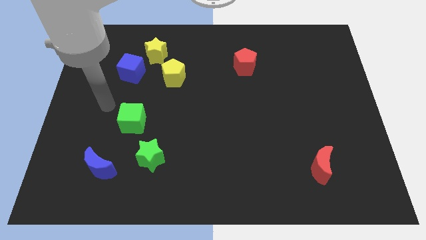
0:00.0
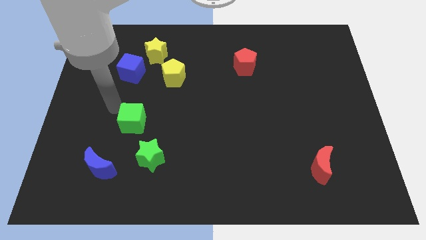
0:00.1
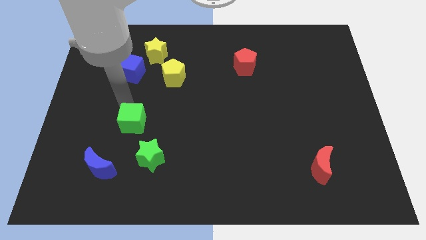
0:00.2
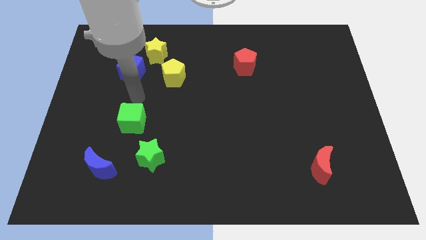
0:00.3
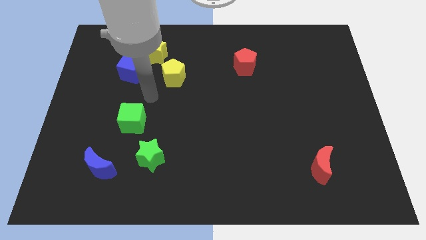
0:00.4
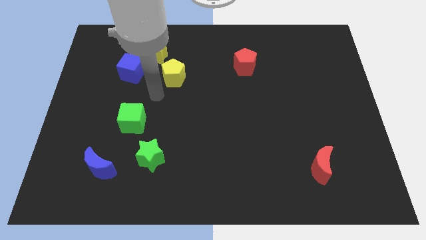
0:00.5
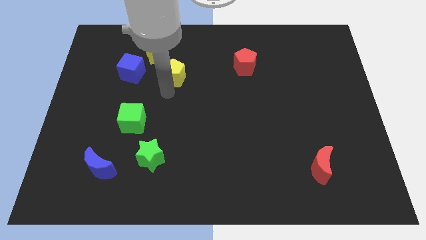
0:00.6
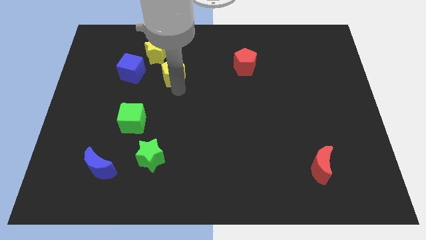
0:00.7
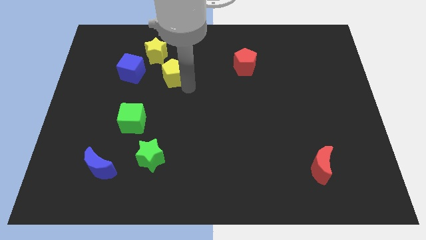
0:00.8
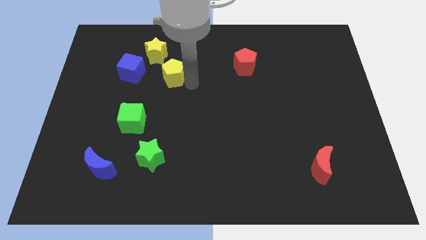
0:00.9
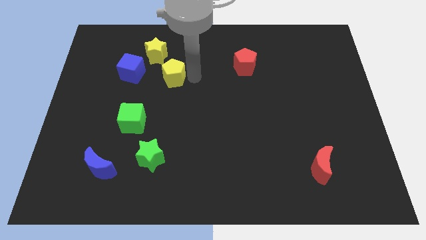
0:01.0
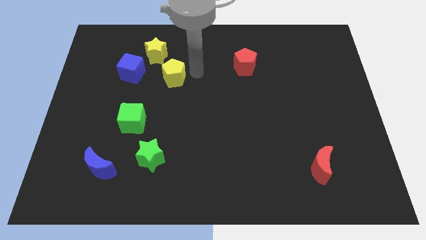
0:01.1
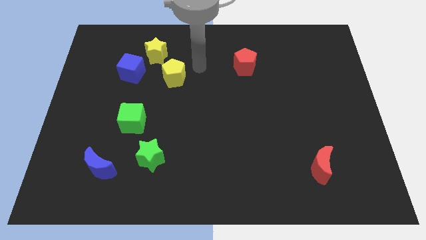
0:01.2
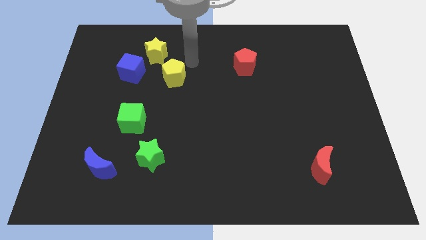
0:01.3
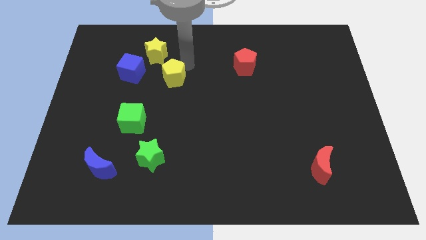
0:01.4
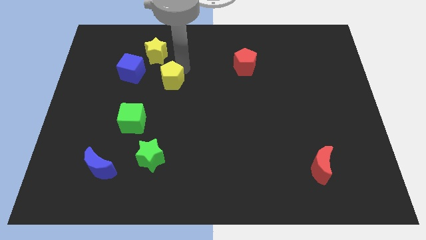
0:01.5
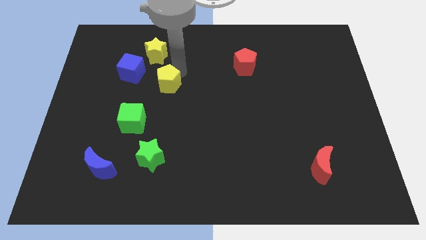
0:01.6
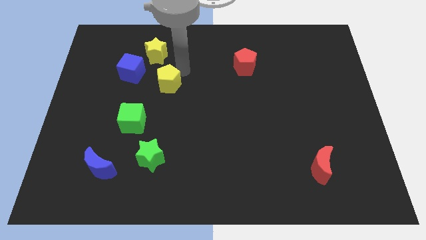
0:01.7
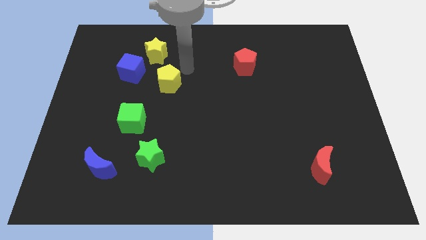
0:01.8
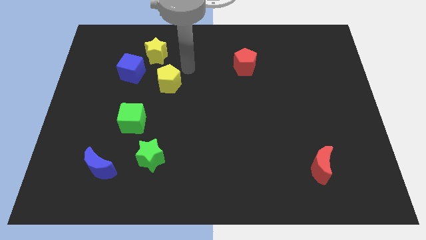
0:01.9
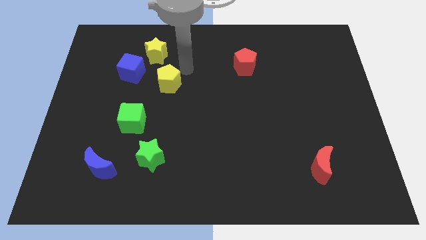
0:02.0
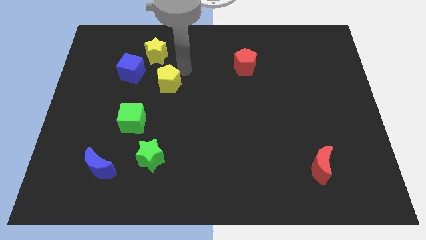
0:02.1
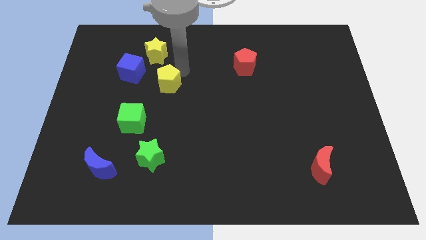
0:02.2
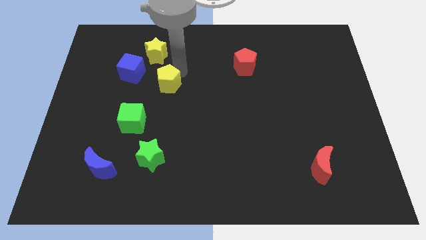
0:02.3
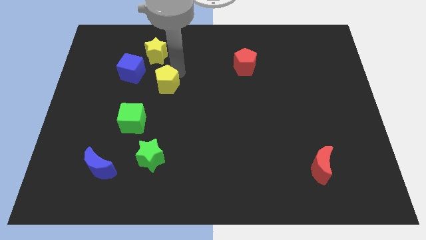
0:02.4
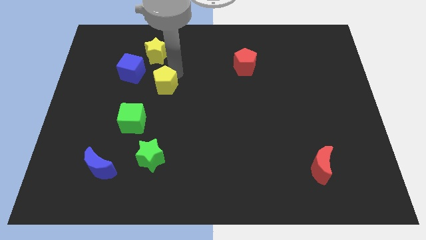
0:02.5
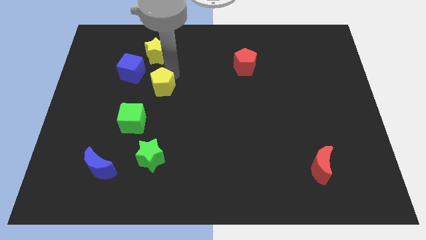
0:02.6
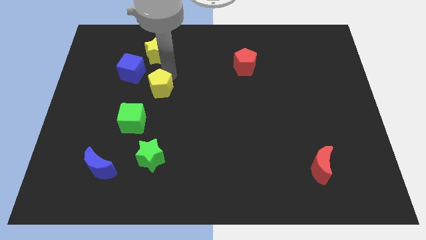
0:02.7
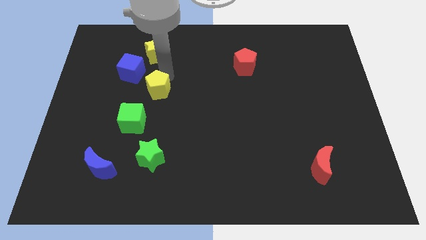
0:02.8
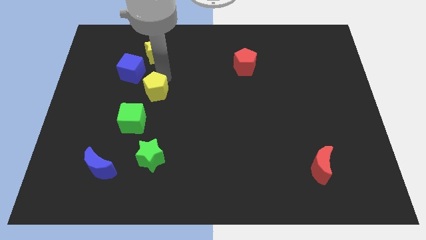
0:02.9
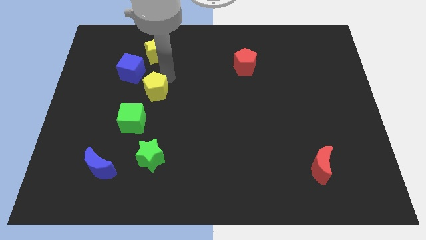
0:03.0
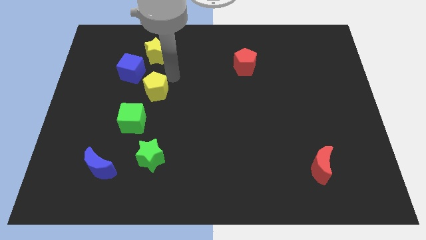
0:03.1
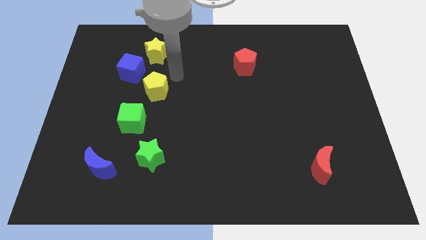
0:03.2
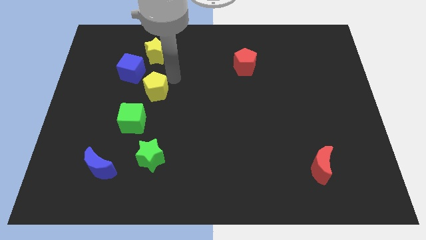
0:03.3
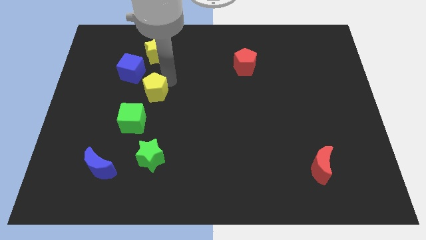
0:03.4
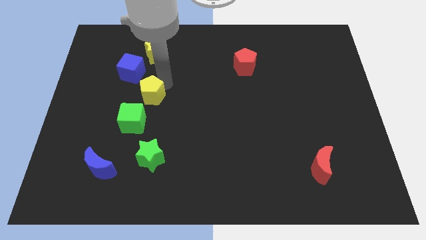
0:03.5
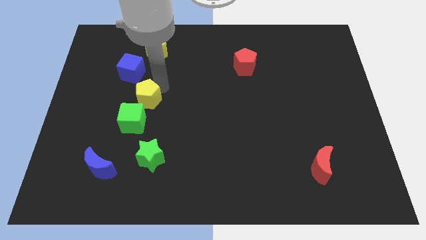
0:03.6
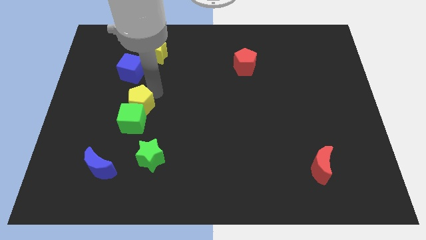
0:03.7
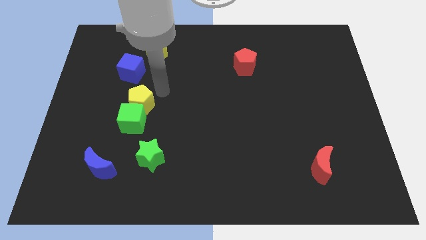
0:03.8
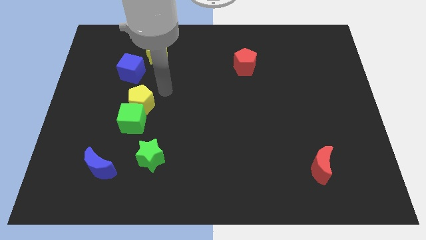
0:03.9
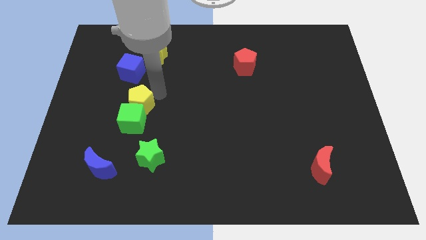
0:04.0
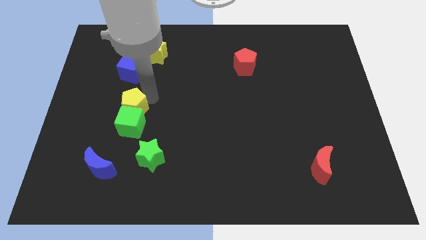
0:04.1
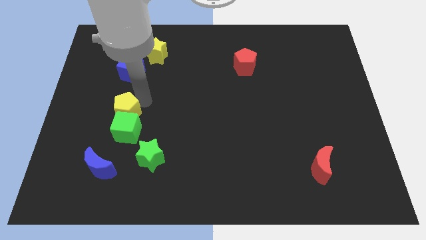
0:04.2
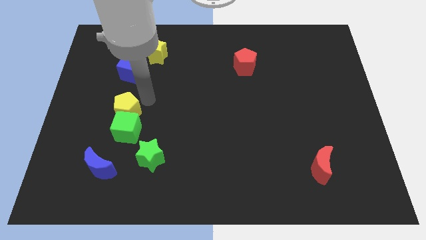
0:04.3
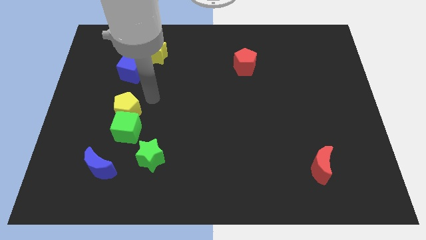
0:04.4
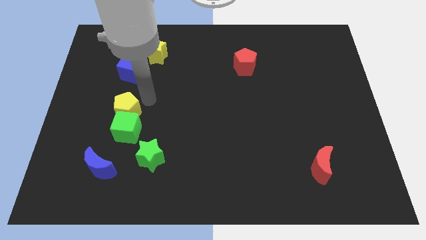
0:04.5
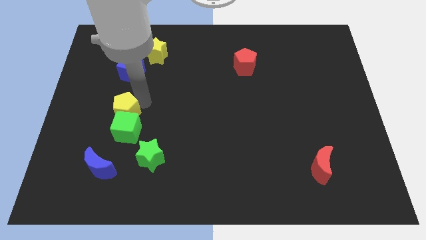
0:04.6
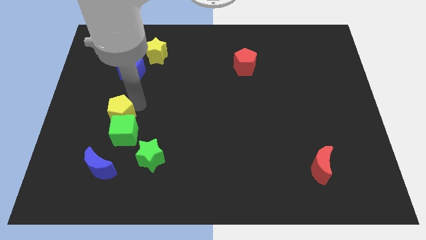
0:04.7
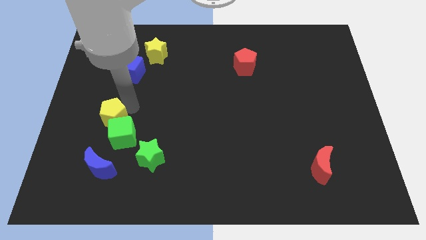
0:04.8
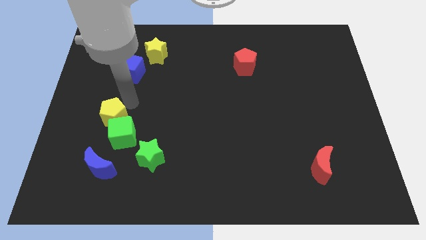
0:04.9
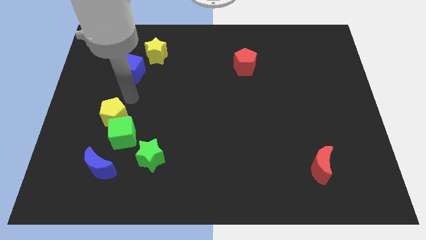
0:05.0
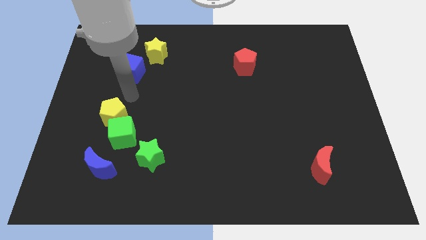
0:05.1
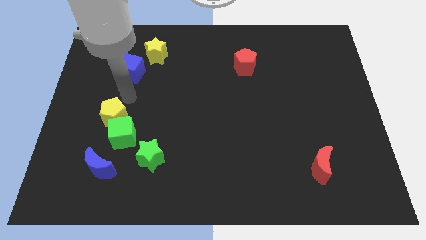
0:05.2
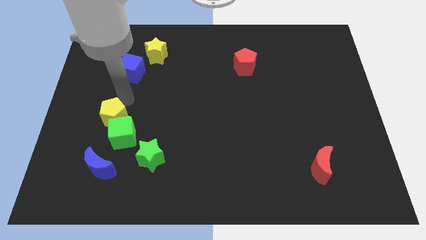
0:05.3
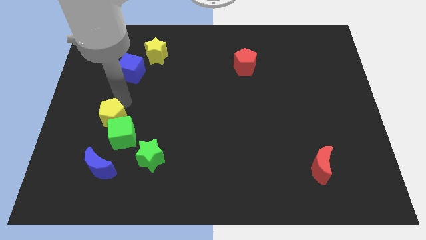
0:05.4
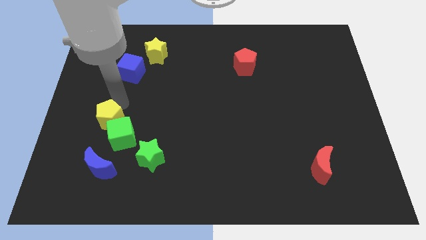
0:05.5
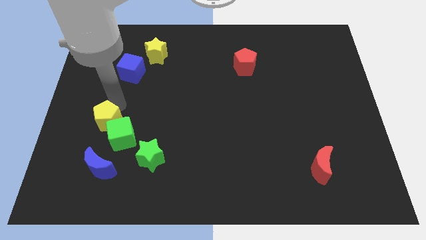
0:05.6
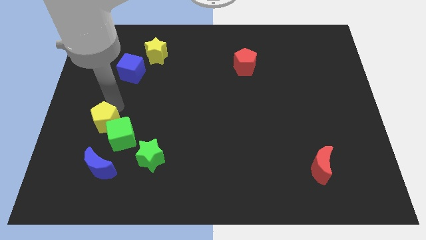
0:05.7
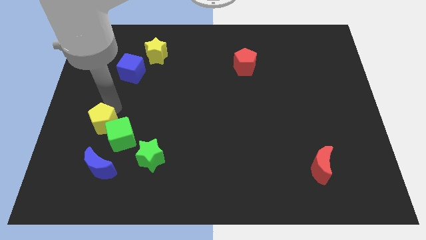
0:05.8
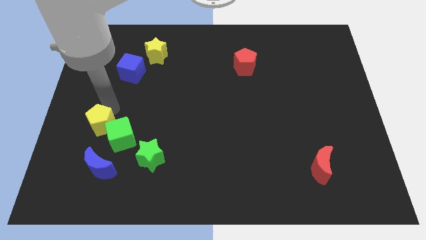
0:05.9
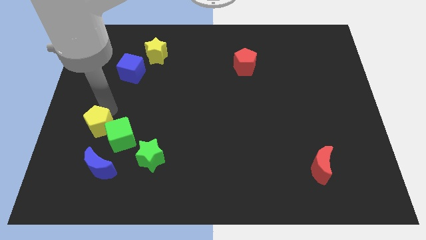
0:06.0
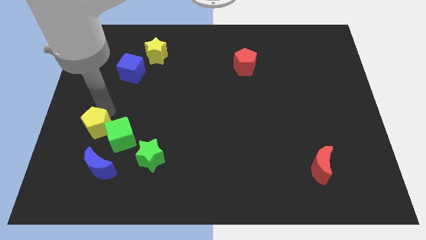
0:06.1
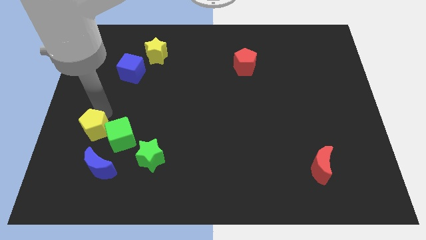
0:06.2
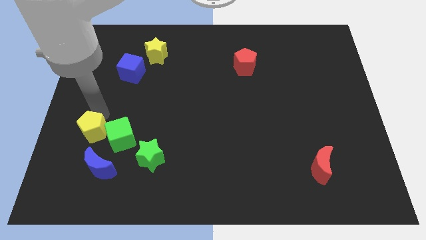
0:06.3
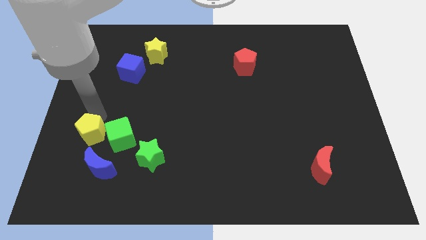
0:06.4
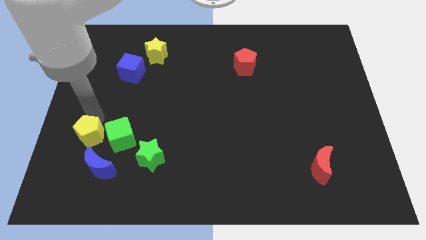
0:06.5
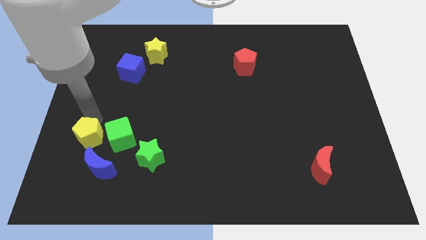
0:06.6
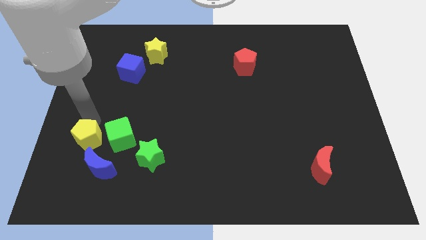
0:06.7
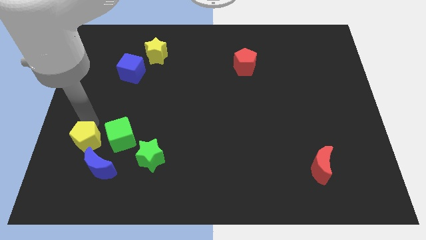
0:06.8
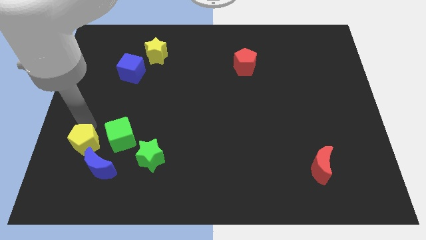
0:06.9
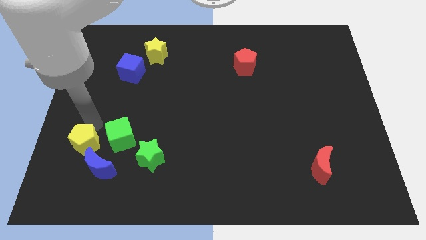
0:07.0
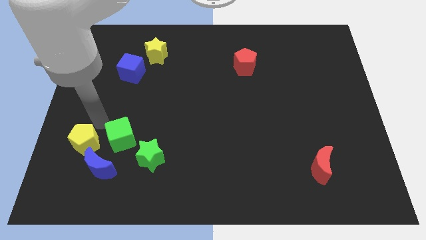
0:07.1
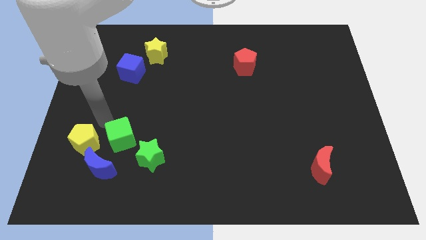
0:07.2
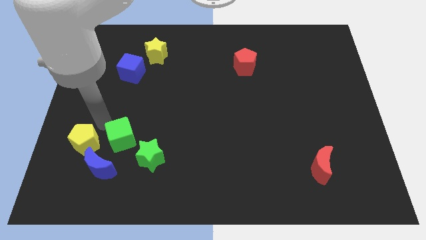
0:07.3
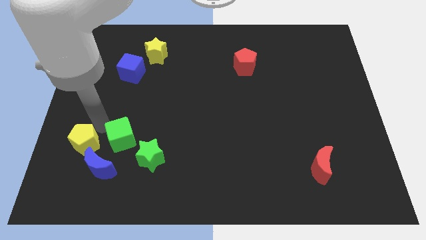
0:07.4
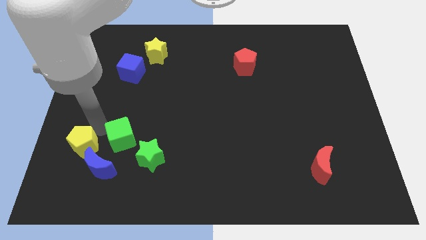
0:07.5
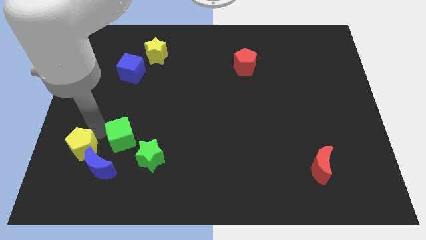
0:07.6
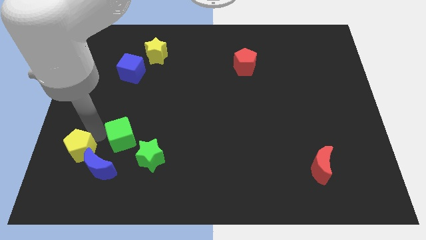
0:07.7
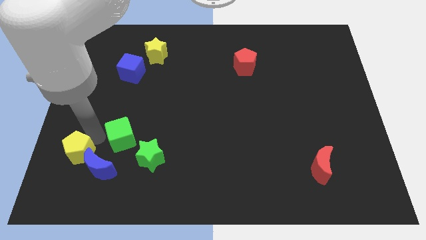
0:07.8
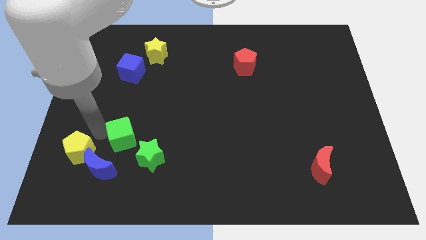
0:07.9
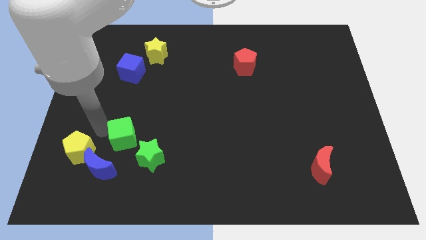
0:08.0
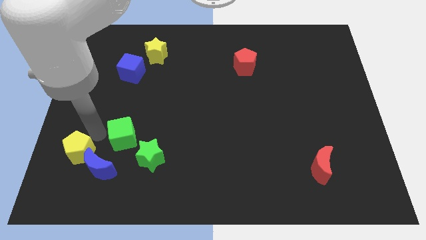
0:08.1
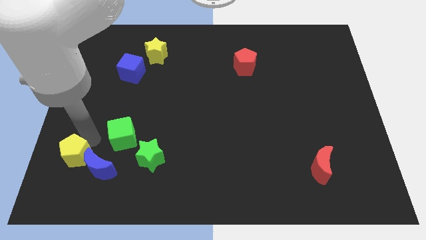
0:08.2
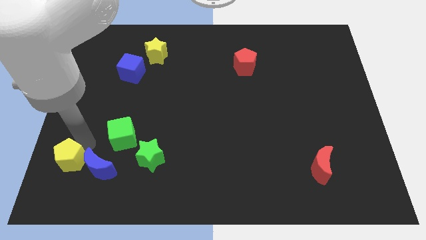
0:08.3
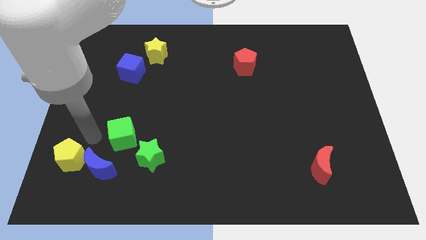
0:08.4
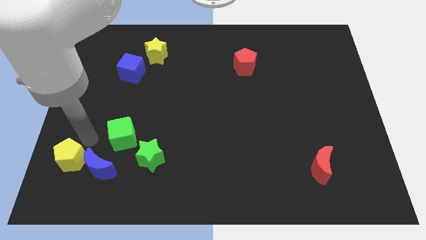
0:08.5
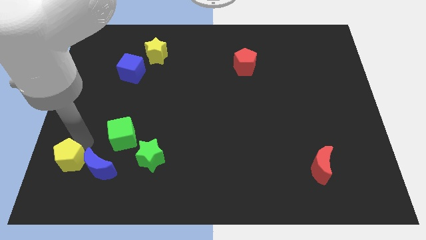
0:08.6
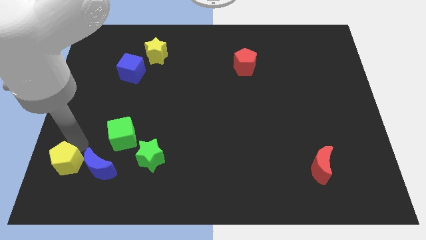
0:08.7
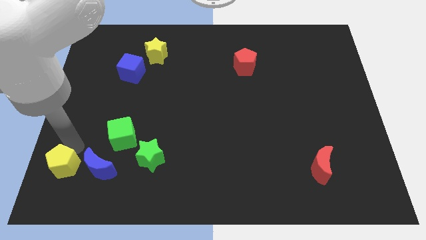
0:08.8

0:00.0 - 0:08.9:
push the yellow pentagon to the bottom left corner
